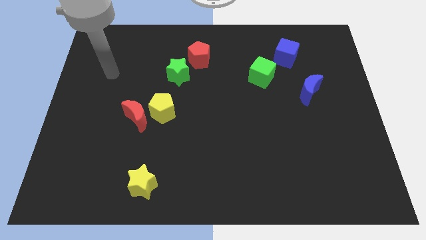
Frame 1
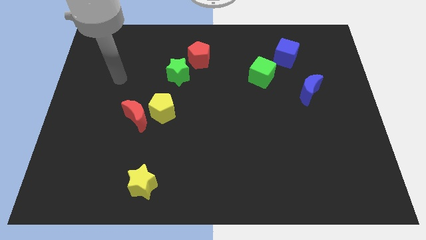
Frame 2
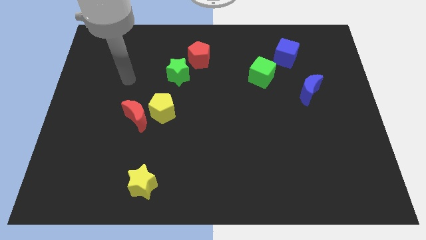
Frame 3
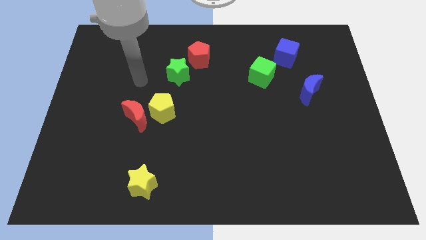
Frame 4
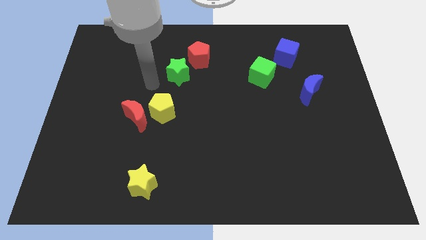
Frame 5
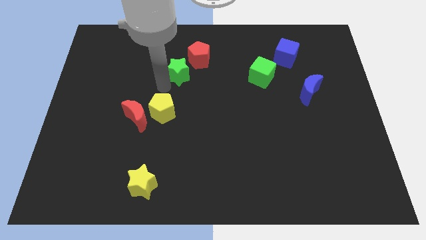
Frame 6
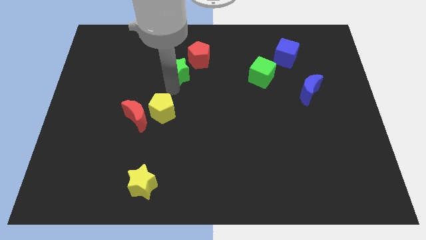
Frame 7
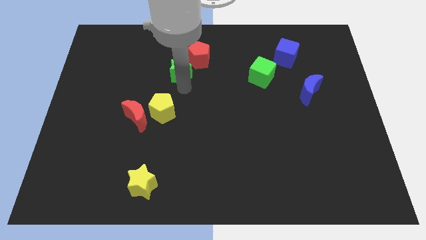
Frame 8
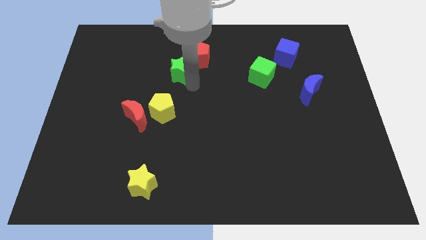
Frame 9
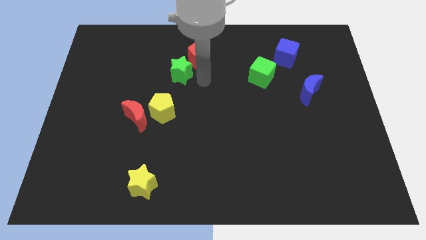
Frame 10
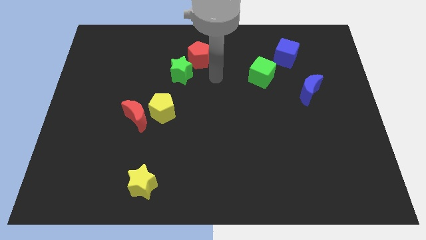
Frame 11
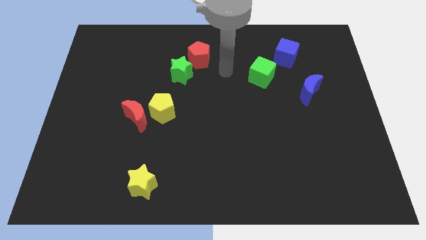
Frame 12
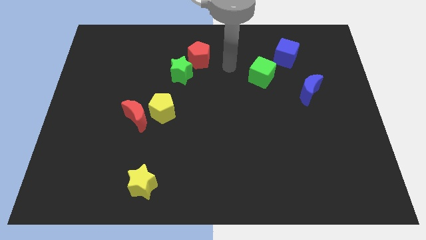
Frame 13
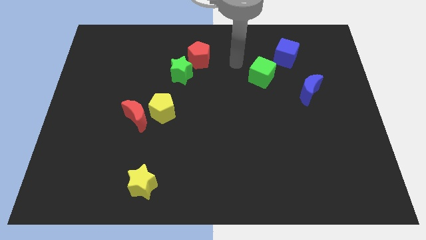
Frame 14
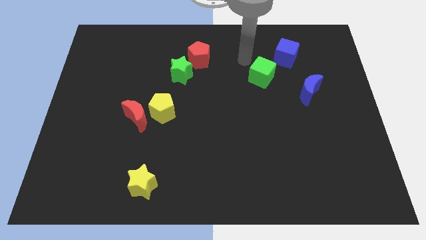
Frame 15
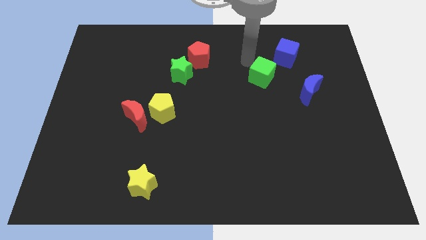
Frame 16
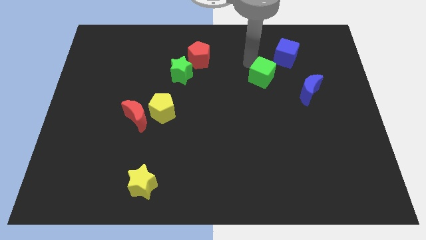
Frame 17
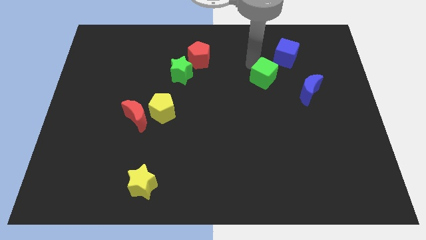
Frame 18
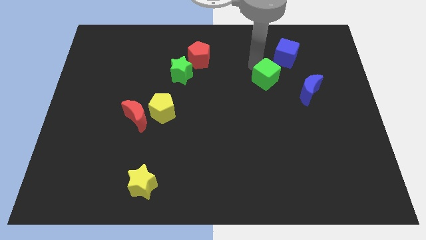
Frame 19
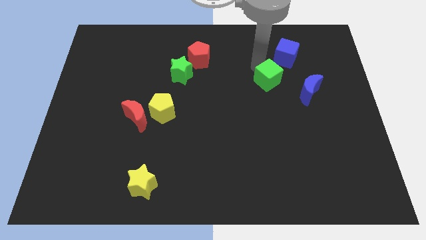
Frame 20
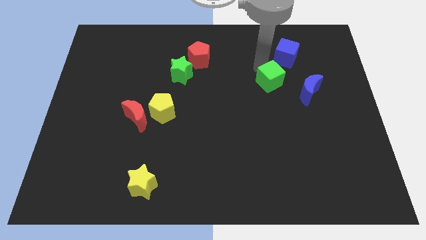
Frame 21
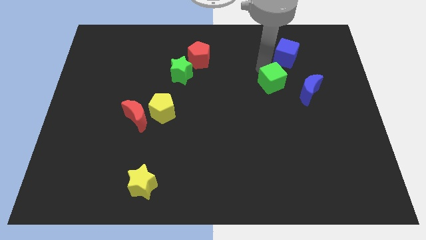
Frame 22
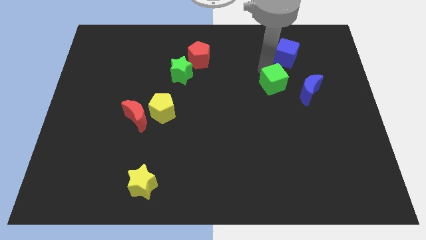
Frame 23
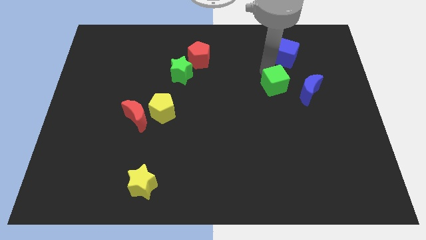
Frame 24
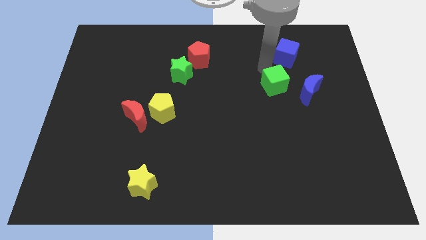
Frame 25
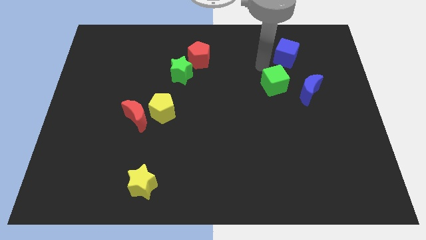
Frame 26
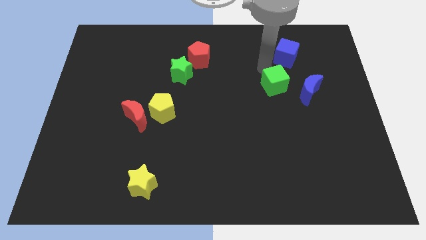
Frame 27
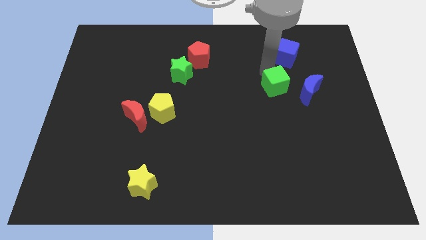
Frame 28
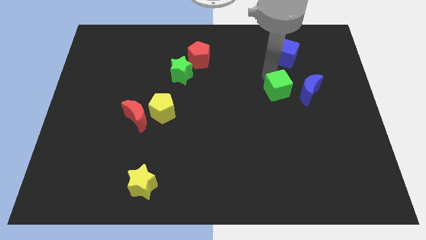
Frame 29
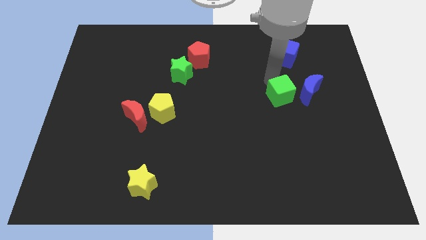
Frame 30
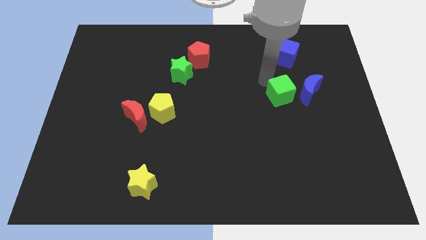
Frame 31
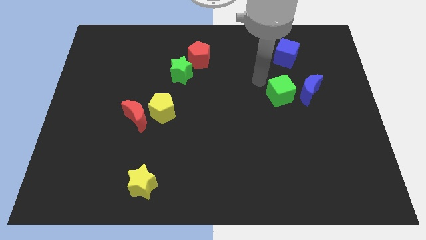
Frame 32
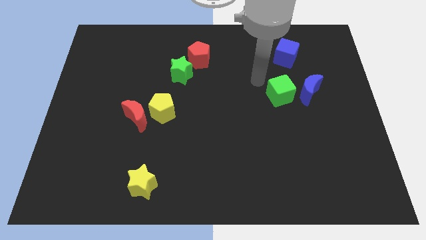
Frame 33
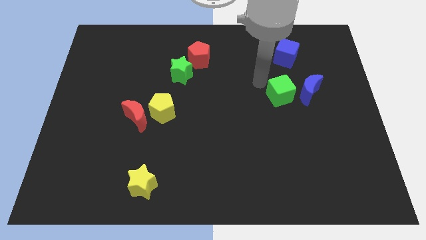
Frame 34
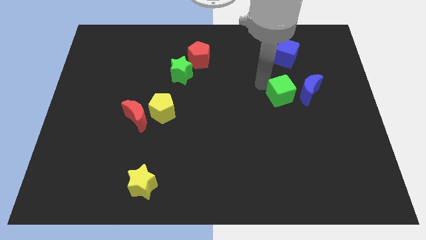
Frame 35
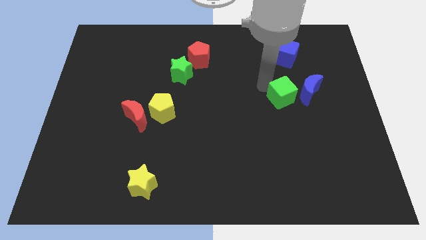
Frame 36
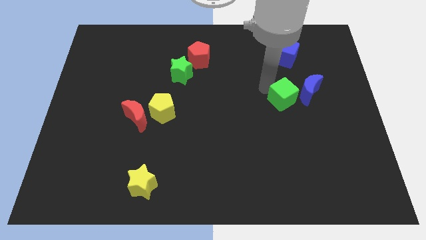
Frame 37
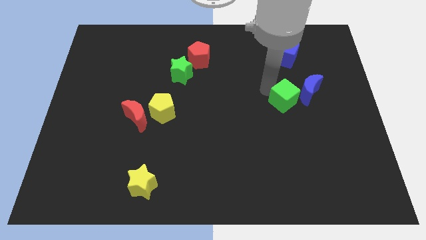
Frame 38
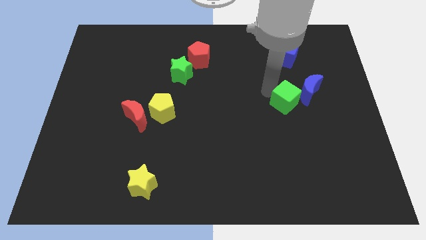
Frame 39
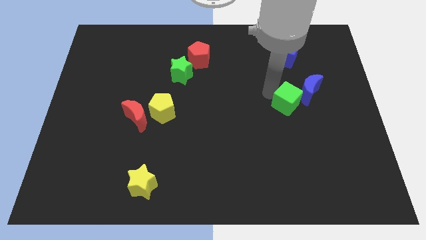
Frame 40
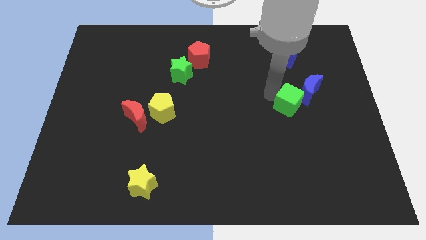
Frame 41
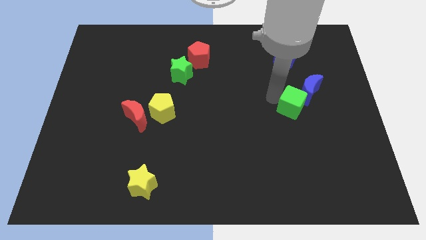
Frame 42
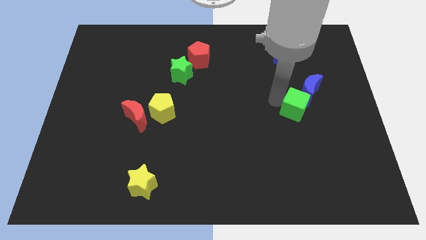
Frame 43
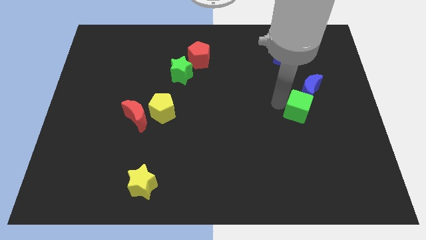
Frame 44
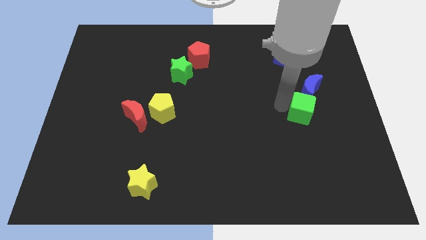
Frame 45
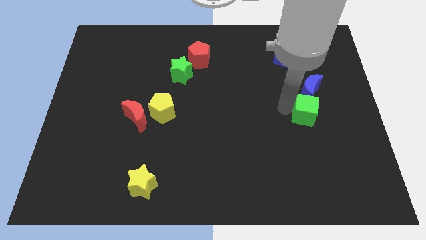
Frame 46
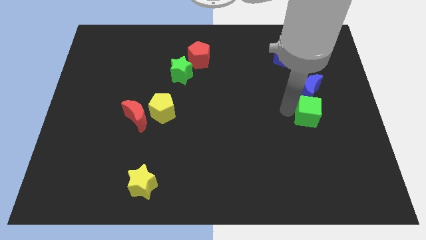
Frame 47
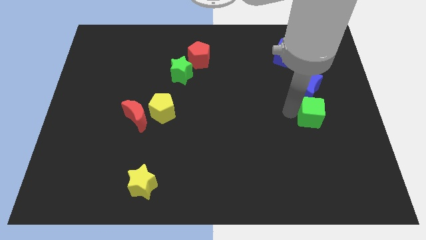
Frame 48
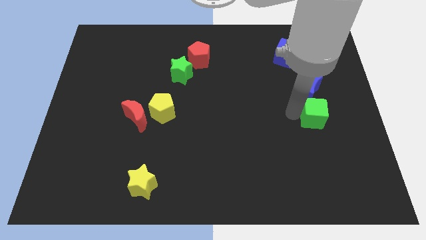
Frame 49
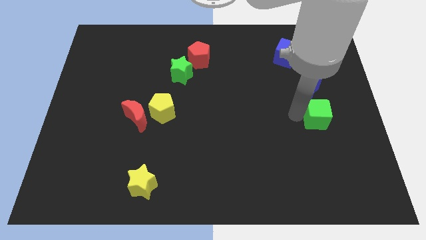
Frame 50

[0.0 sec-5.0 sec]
slide the green cube to the bottom right of the blue moon
